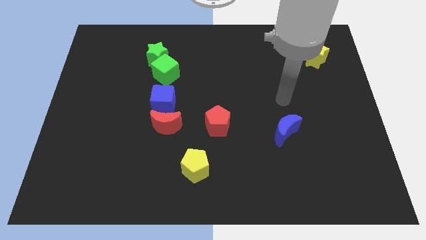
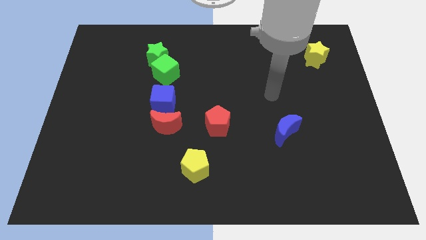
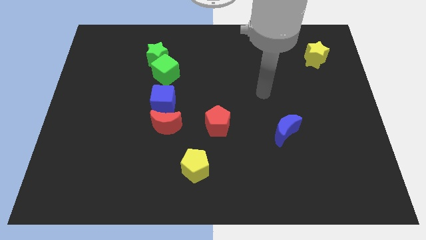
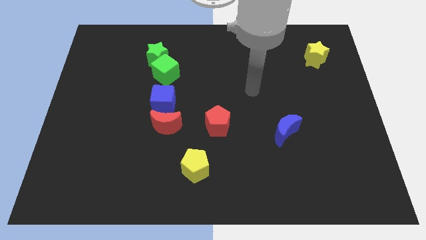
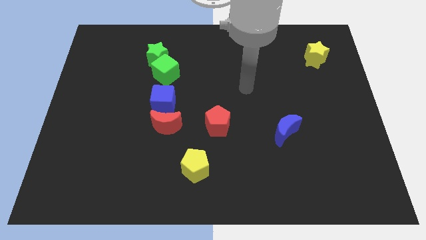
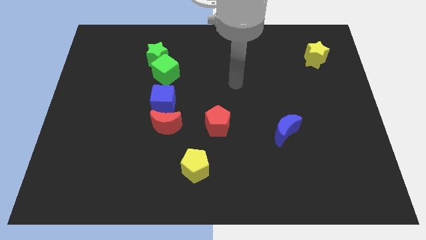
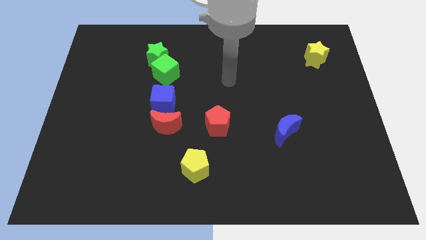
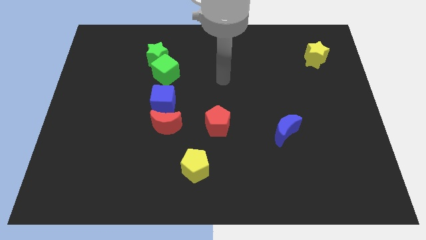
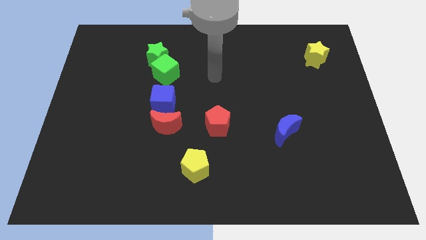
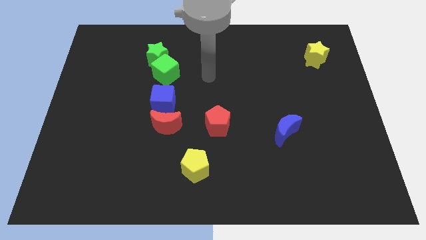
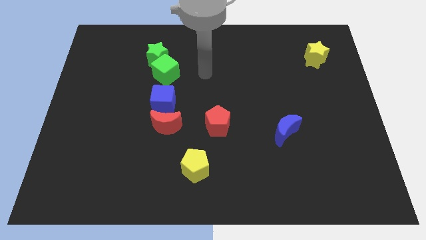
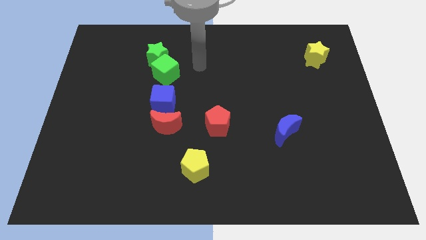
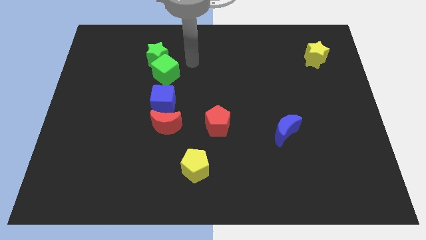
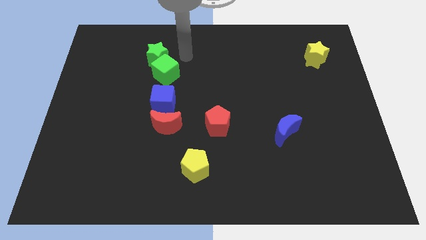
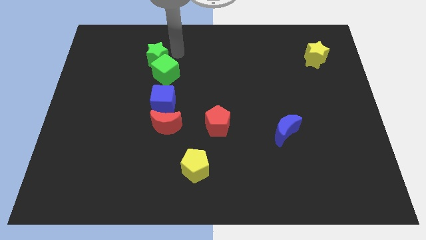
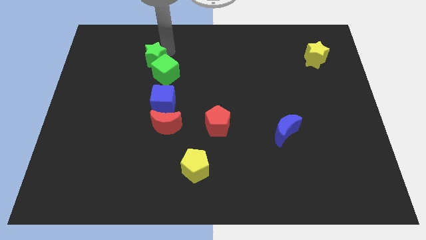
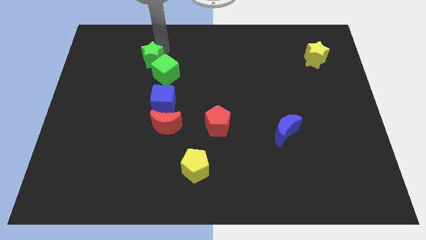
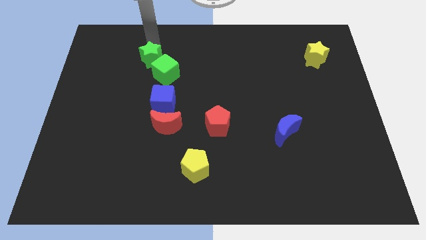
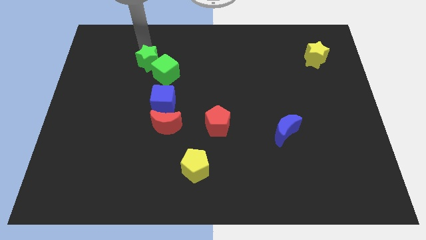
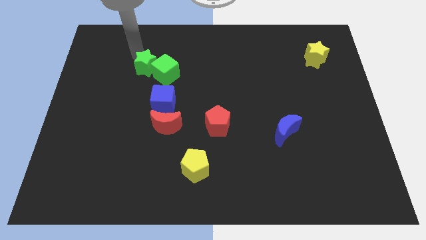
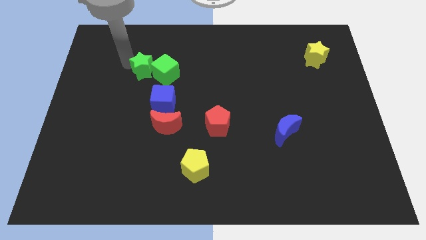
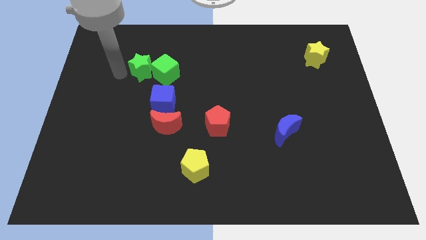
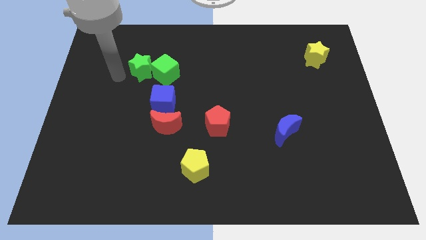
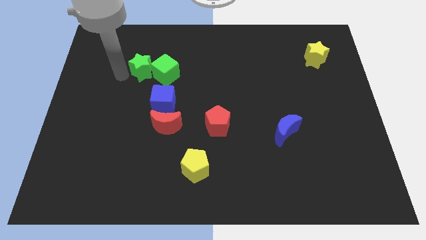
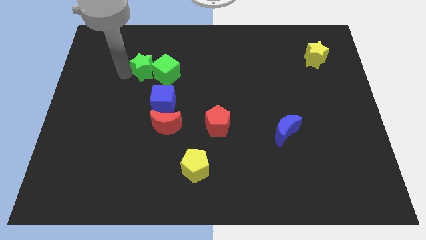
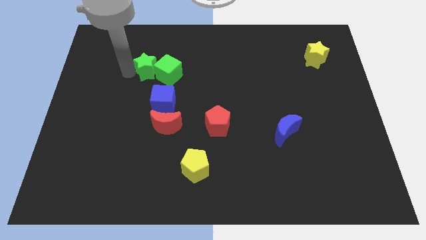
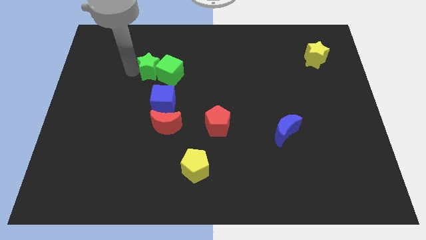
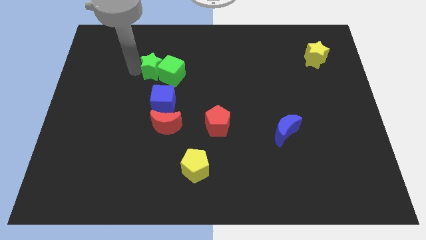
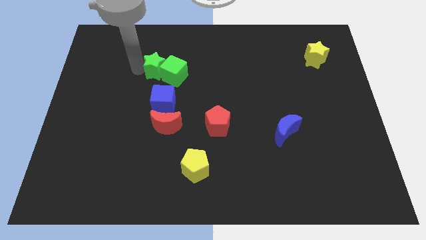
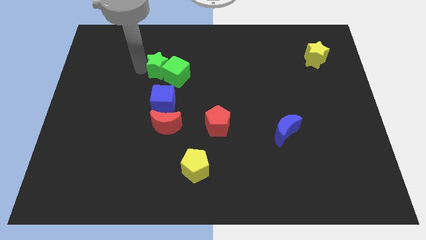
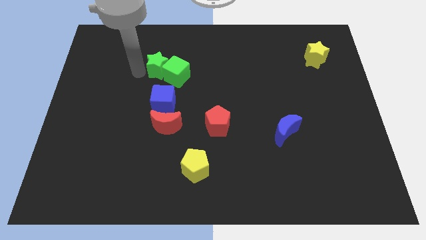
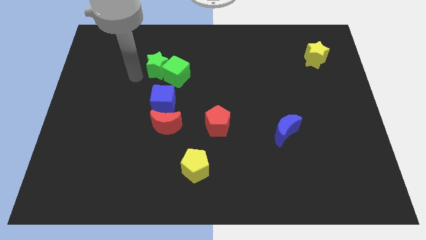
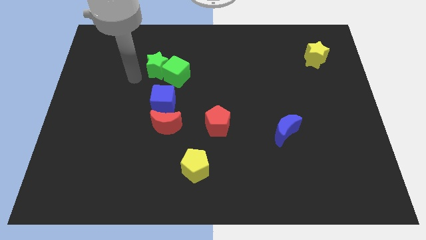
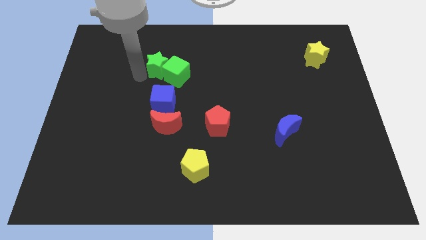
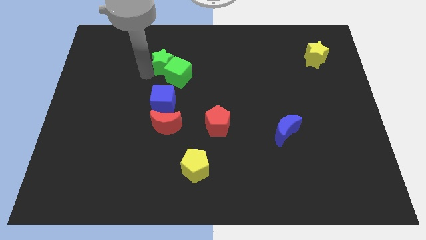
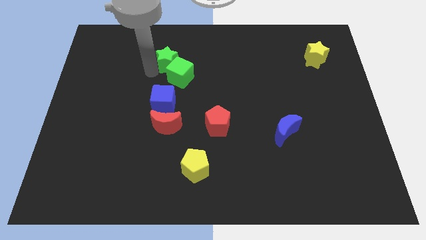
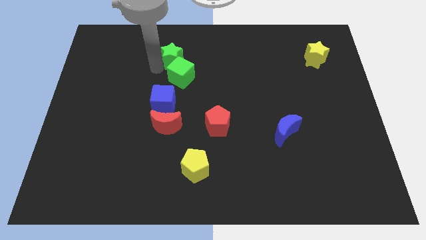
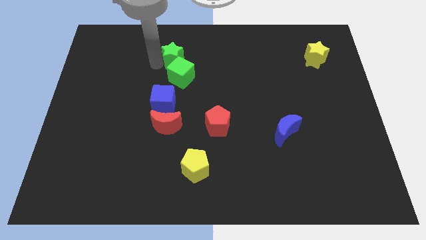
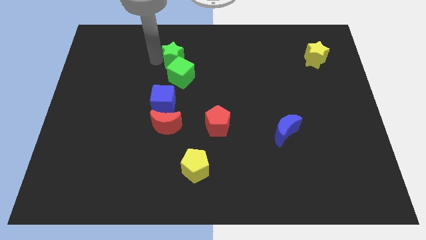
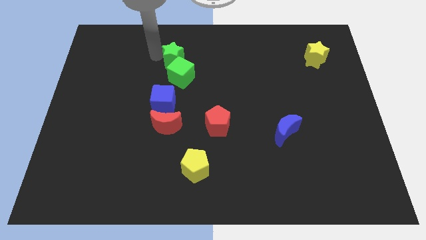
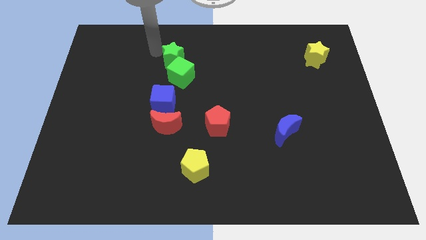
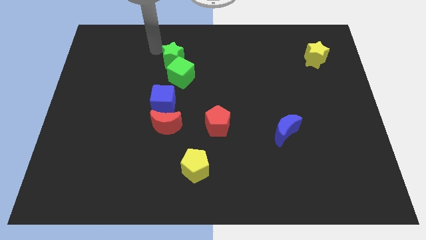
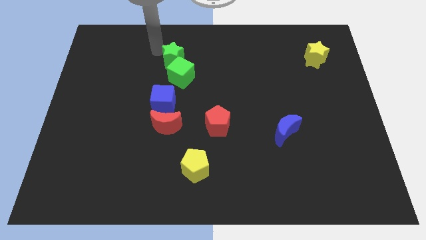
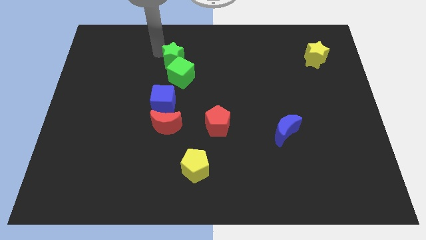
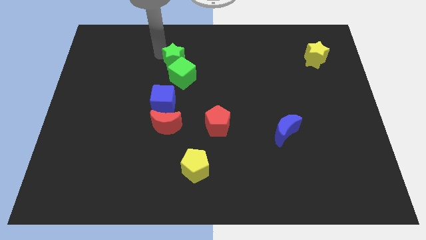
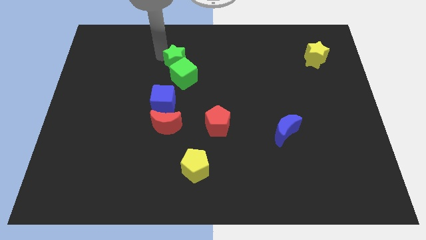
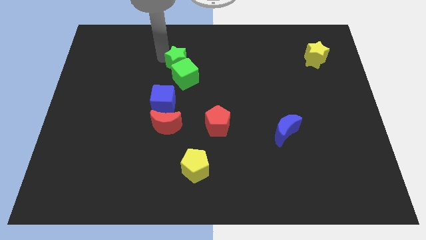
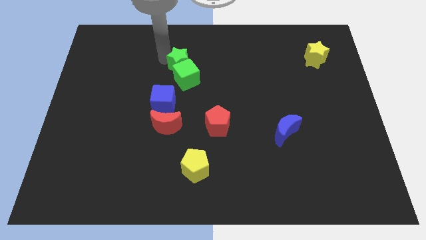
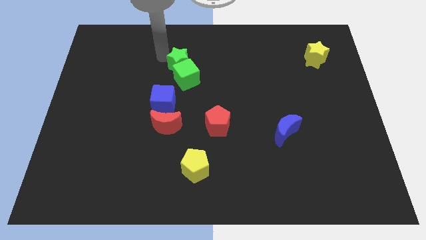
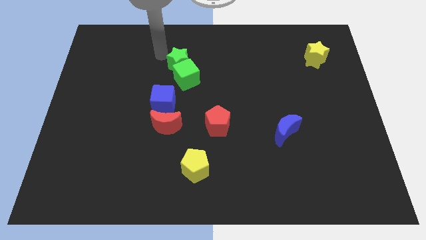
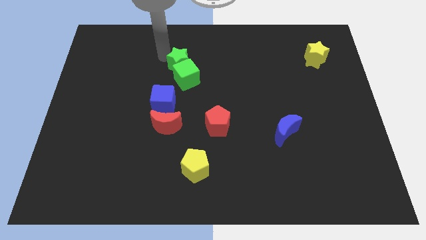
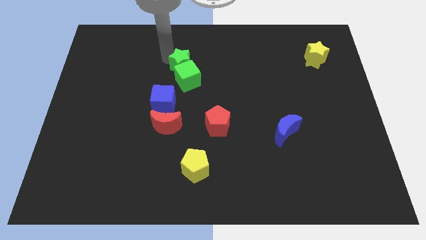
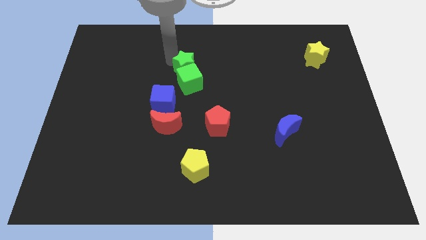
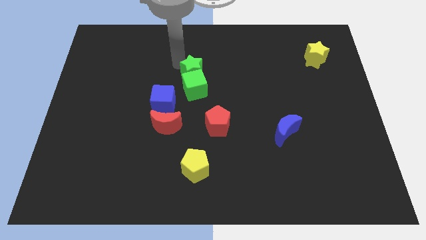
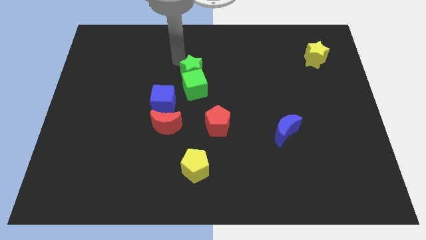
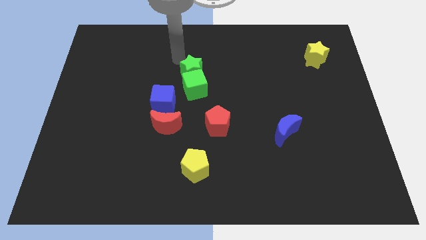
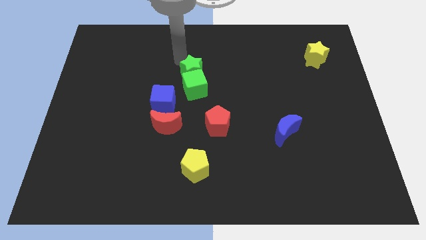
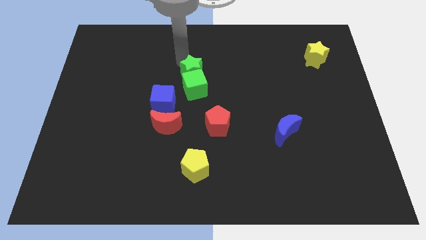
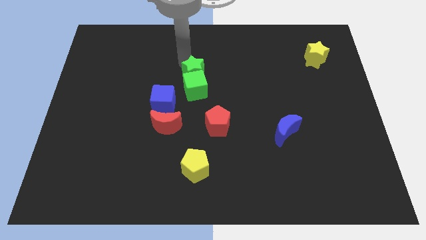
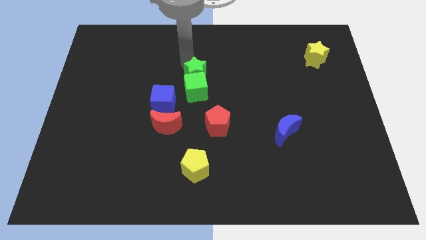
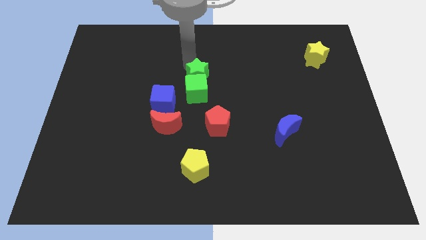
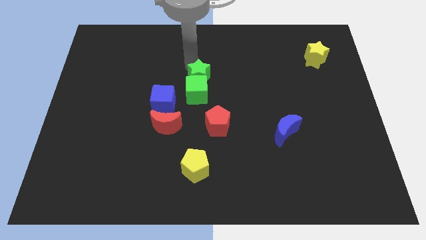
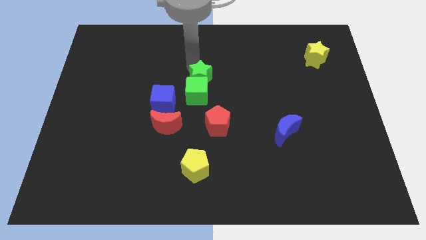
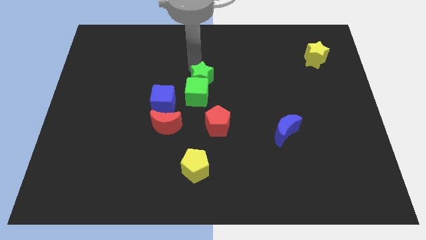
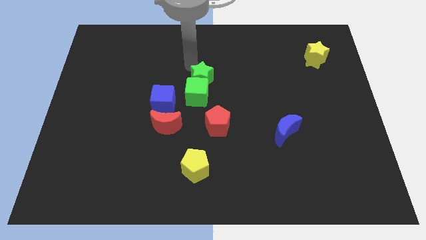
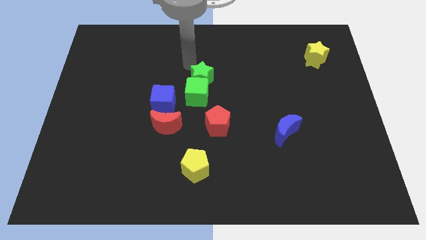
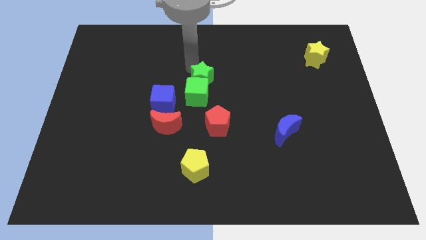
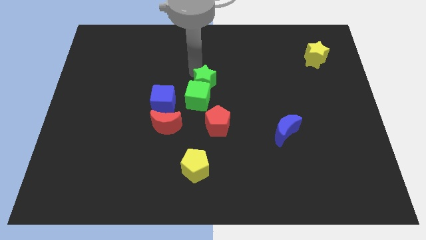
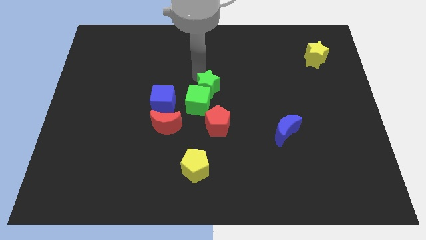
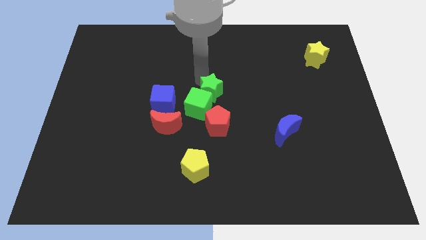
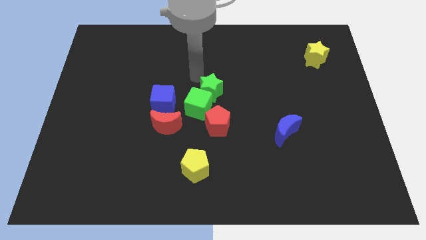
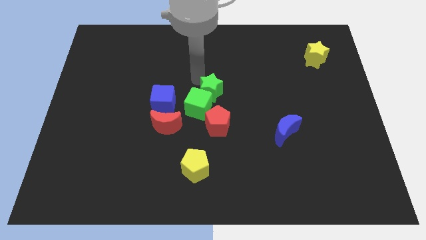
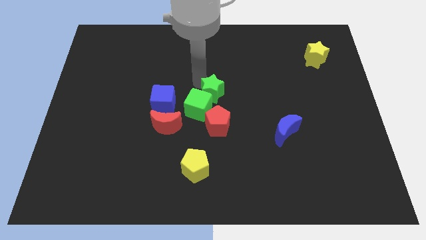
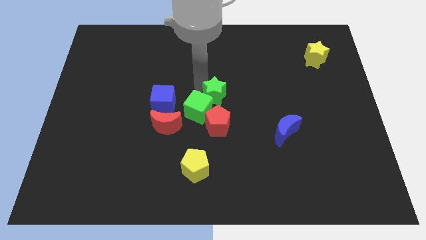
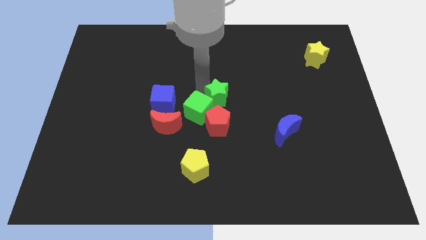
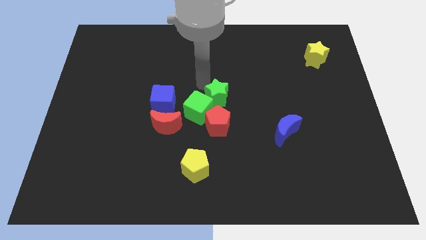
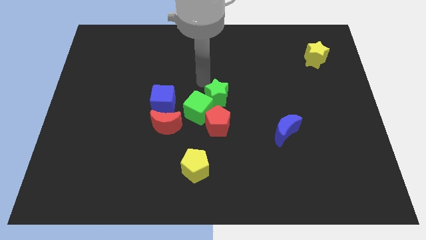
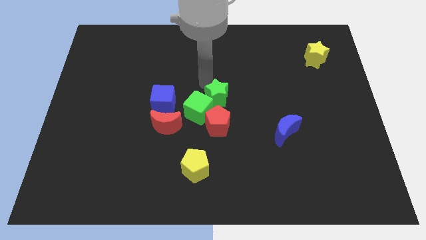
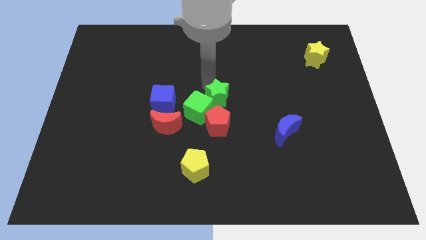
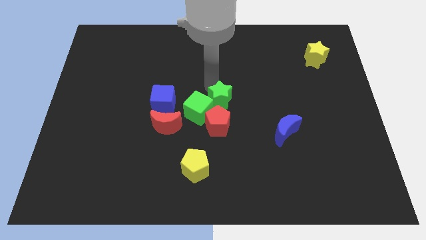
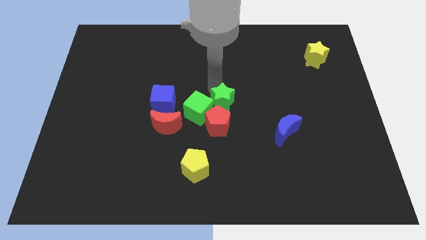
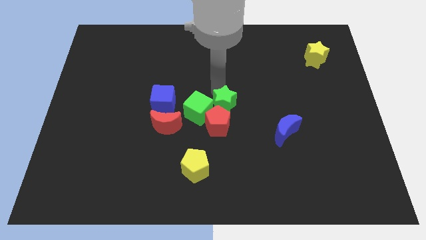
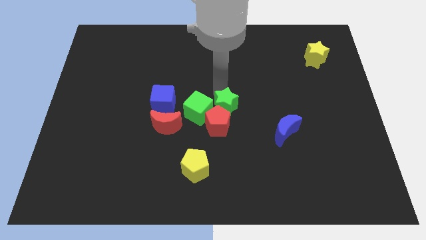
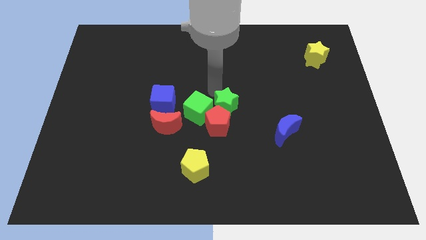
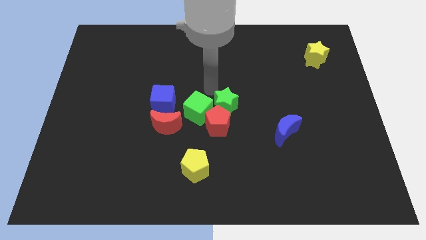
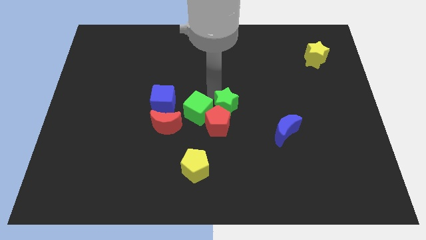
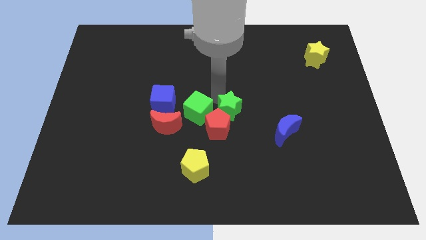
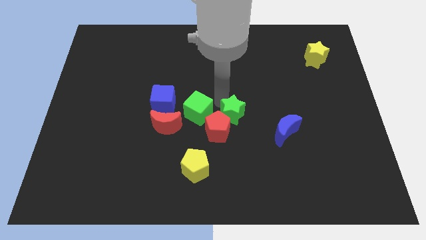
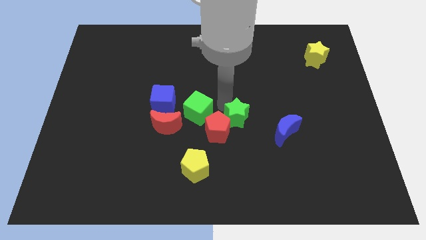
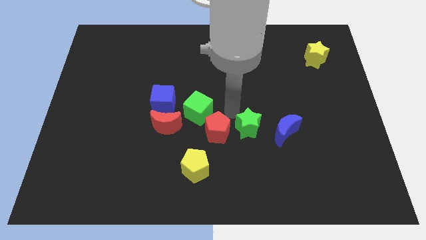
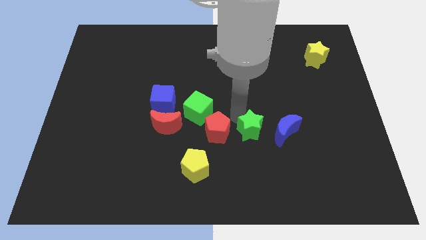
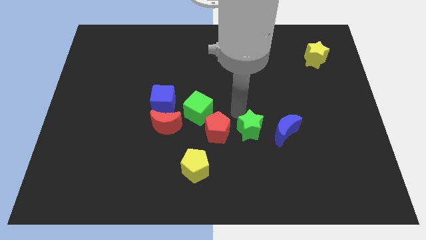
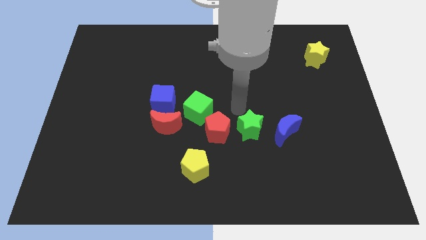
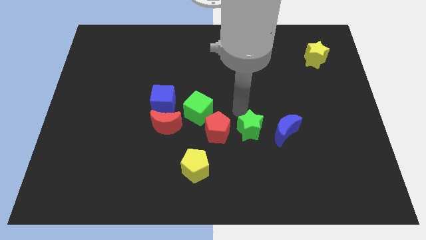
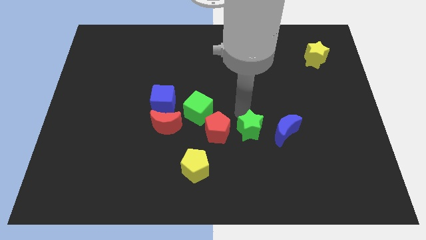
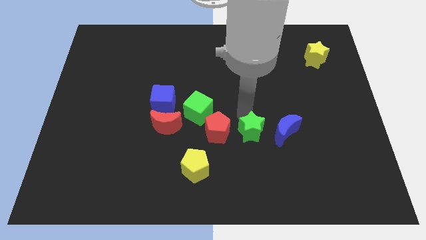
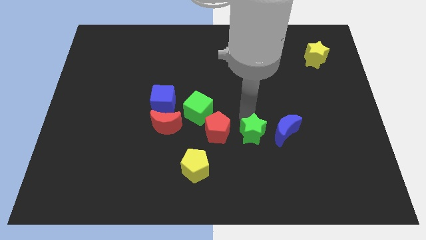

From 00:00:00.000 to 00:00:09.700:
push the green star diagonally down and to the left of the blue moon
